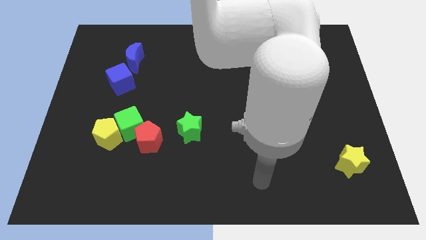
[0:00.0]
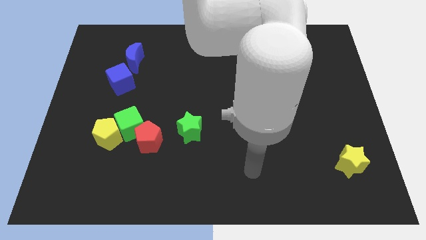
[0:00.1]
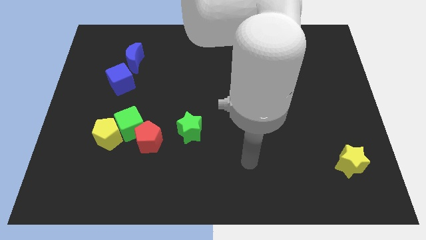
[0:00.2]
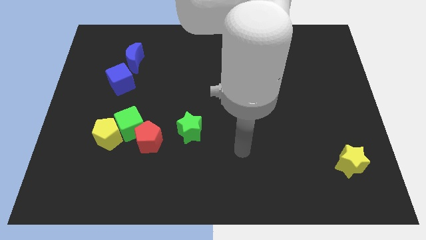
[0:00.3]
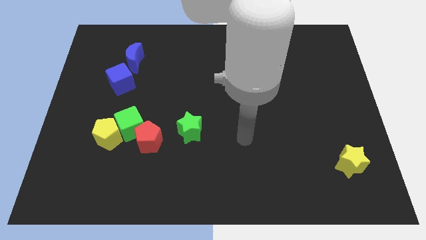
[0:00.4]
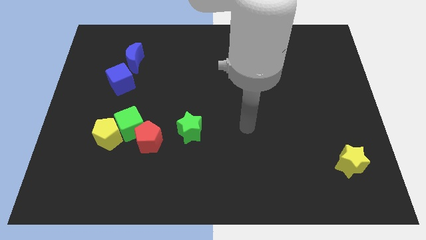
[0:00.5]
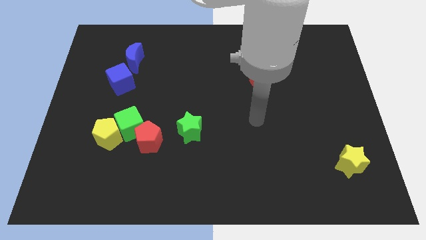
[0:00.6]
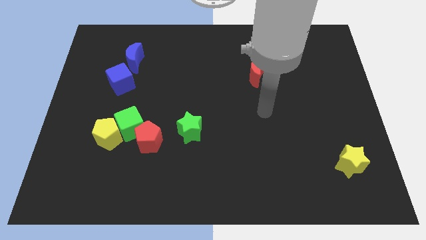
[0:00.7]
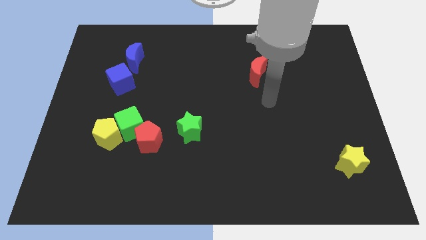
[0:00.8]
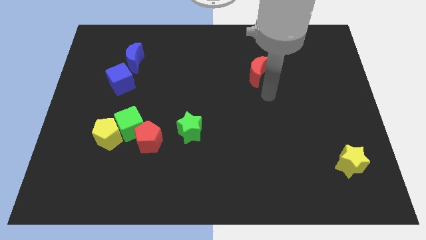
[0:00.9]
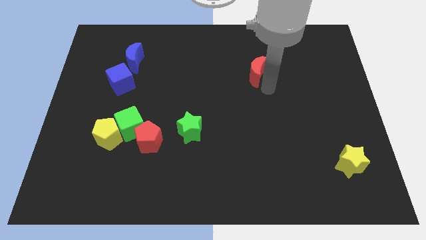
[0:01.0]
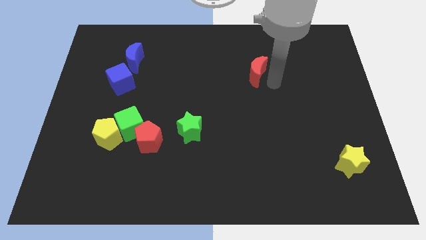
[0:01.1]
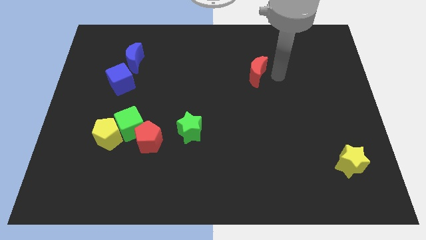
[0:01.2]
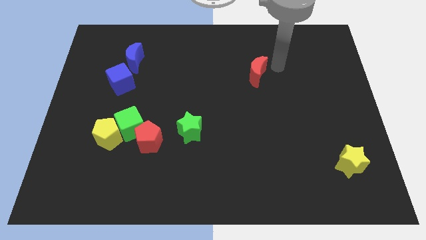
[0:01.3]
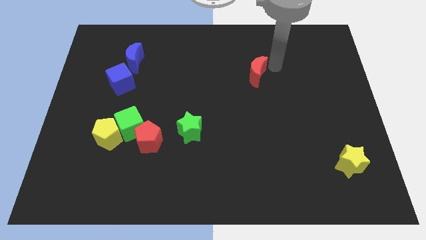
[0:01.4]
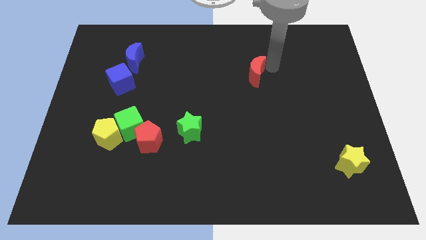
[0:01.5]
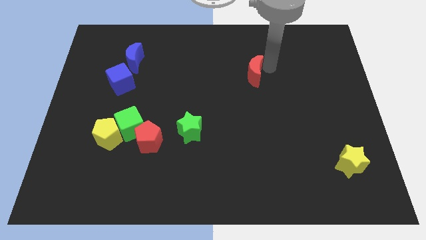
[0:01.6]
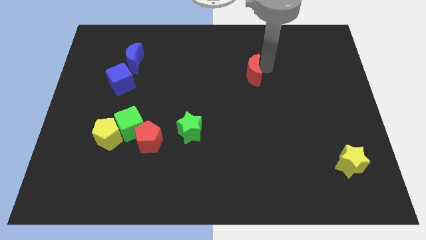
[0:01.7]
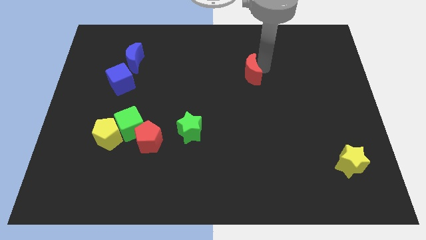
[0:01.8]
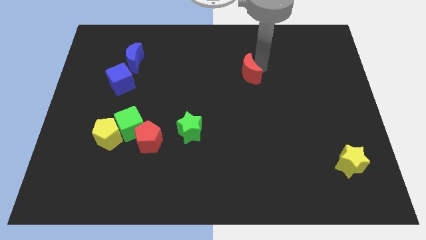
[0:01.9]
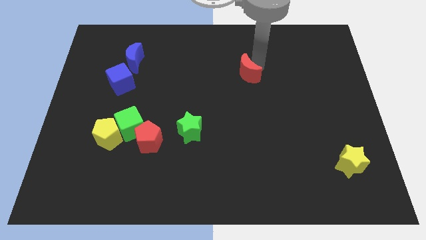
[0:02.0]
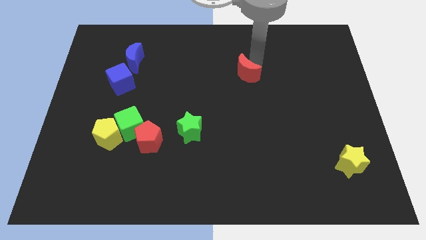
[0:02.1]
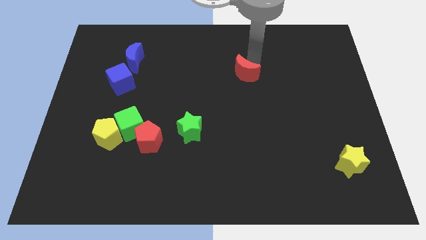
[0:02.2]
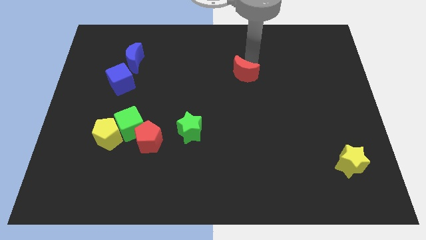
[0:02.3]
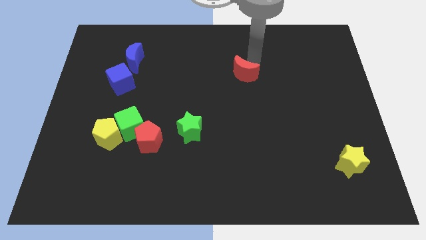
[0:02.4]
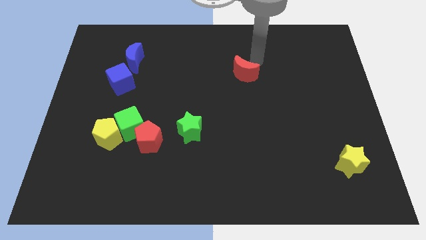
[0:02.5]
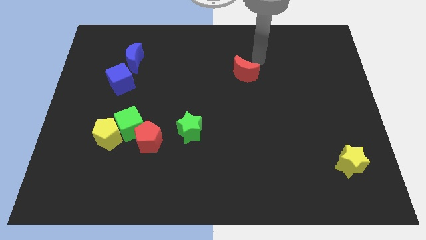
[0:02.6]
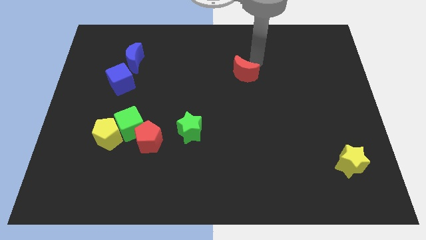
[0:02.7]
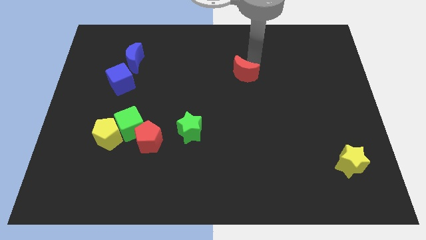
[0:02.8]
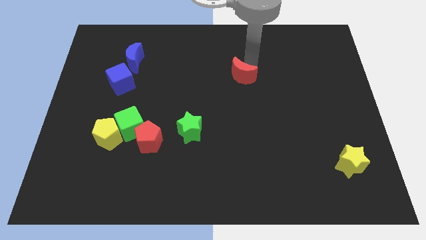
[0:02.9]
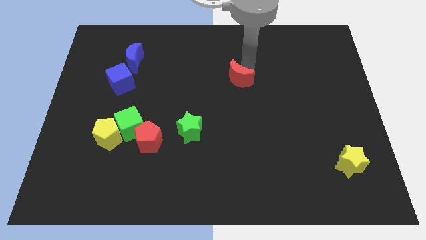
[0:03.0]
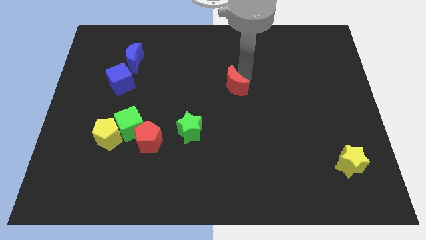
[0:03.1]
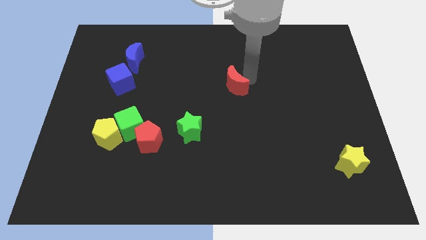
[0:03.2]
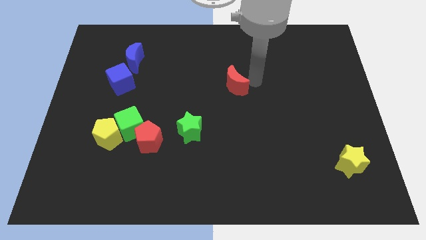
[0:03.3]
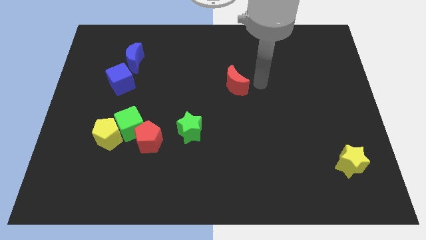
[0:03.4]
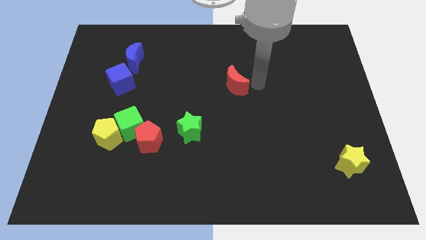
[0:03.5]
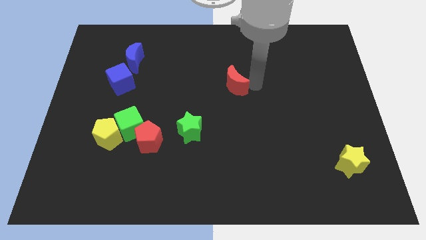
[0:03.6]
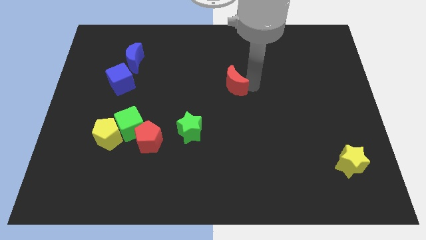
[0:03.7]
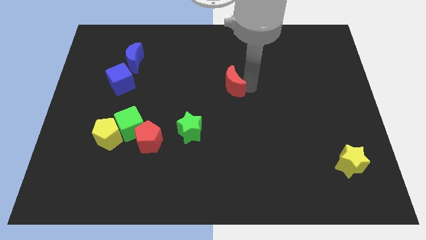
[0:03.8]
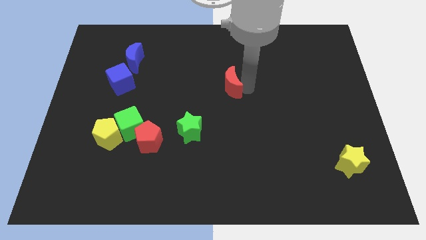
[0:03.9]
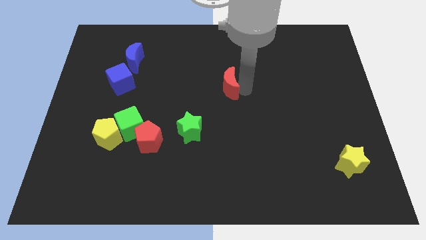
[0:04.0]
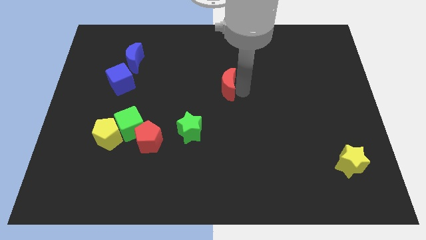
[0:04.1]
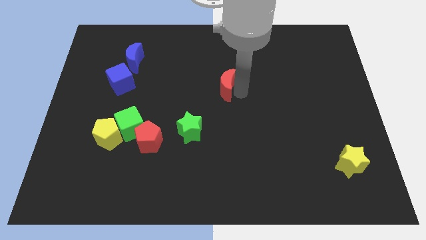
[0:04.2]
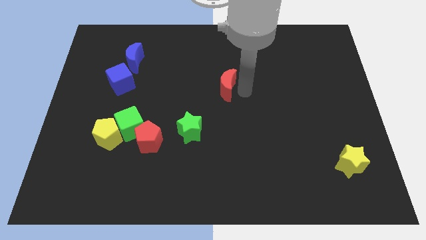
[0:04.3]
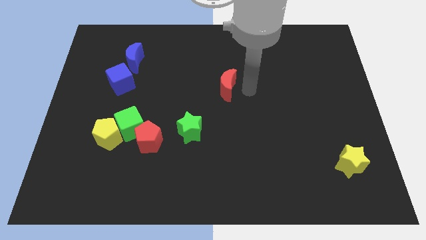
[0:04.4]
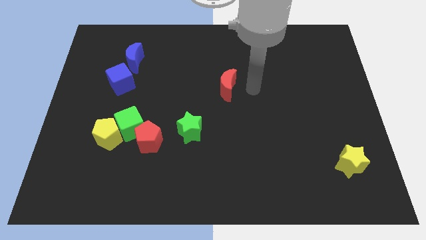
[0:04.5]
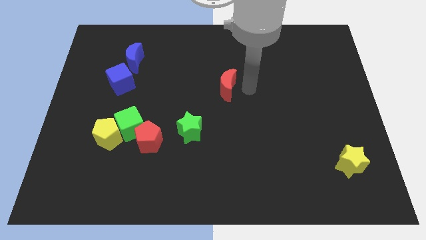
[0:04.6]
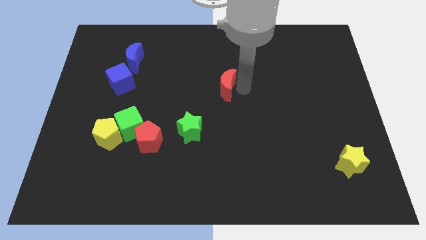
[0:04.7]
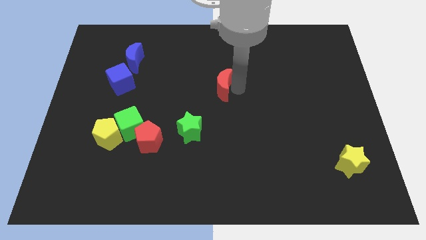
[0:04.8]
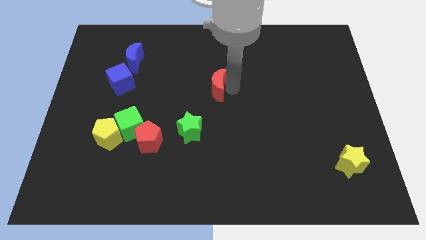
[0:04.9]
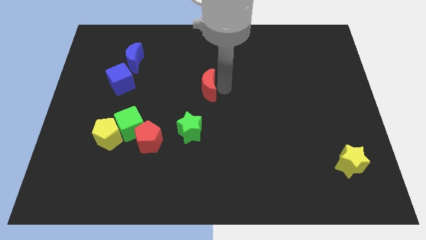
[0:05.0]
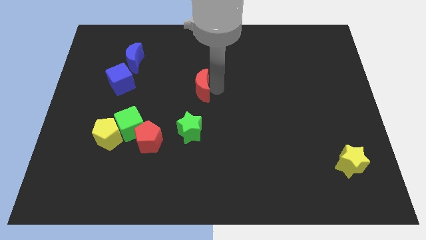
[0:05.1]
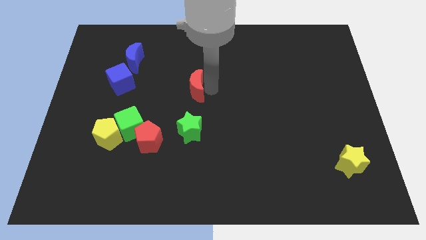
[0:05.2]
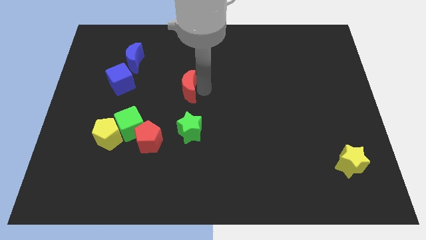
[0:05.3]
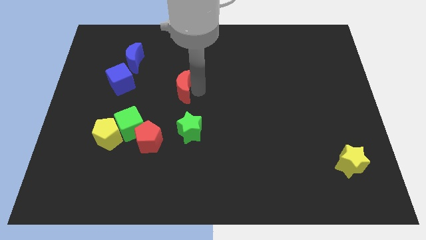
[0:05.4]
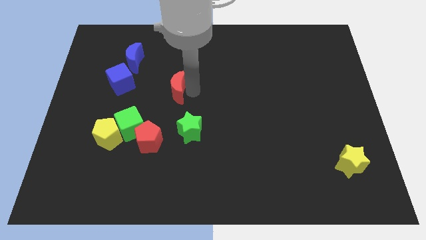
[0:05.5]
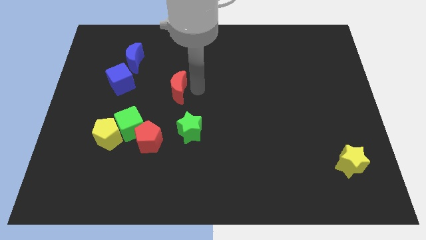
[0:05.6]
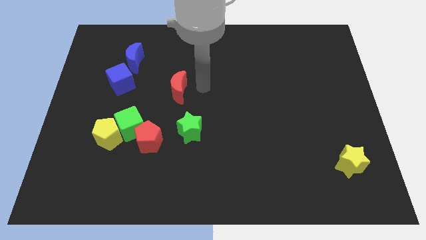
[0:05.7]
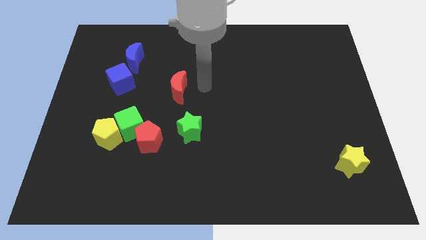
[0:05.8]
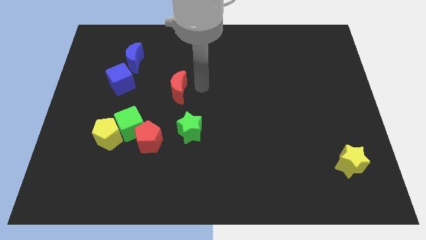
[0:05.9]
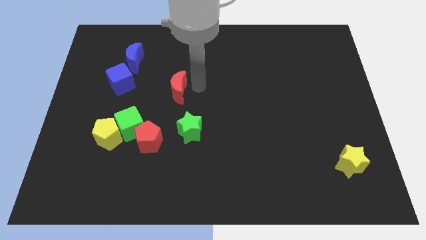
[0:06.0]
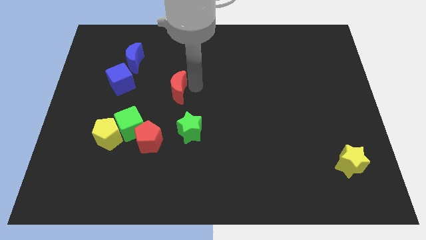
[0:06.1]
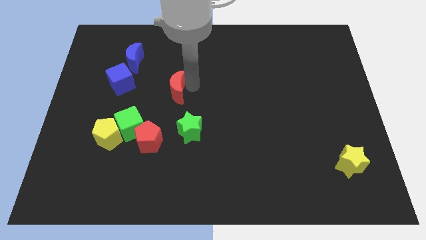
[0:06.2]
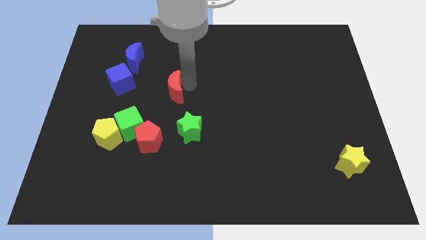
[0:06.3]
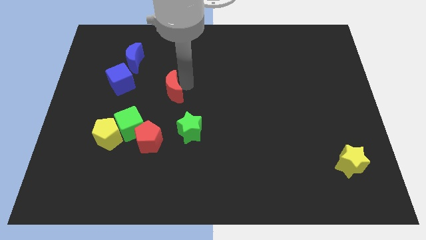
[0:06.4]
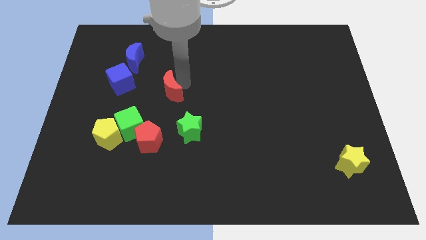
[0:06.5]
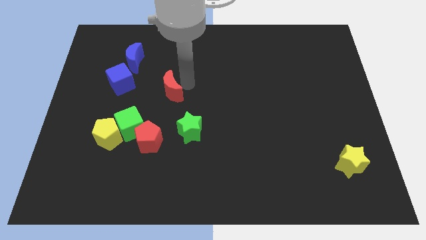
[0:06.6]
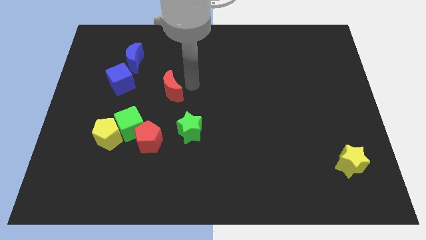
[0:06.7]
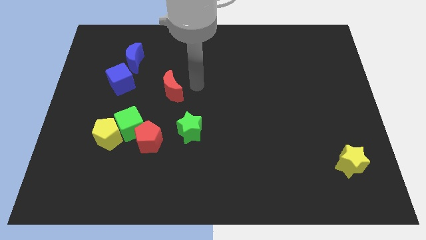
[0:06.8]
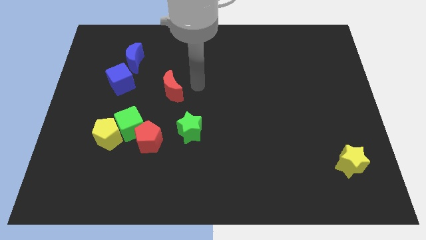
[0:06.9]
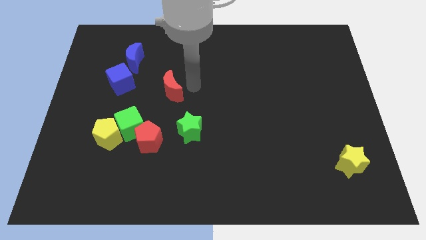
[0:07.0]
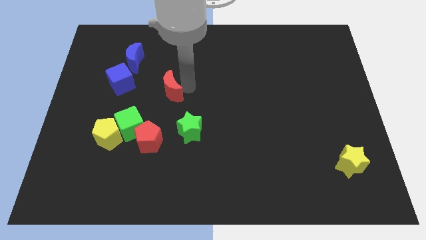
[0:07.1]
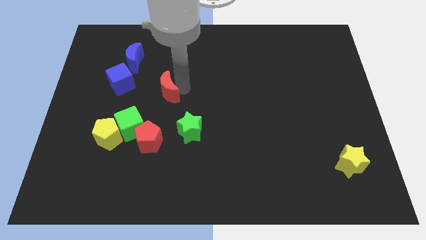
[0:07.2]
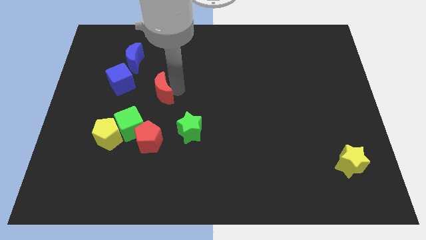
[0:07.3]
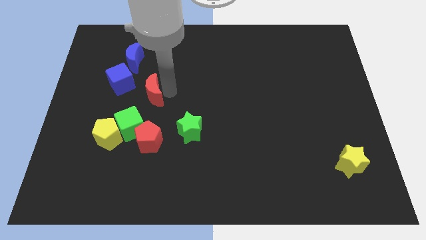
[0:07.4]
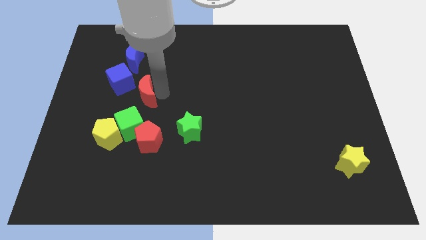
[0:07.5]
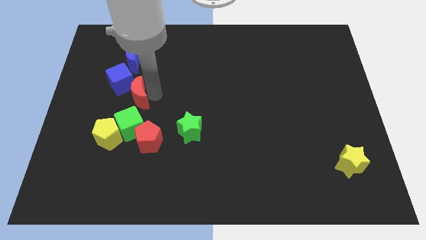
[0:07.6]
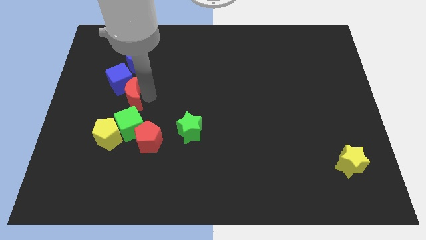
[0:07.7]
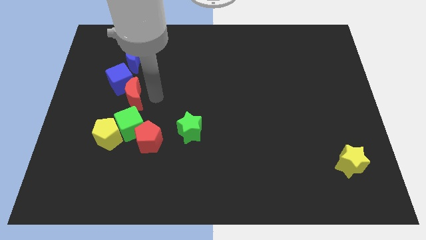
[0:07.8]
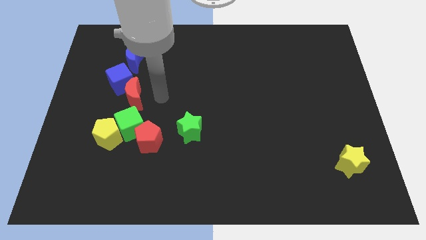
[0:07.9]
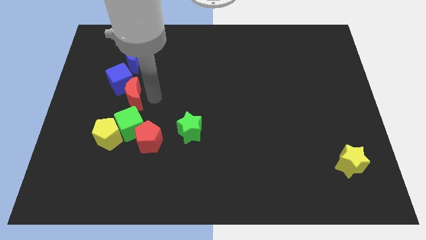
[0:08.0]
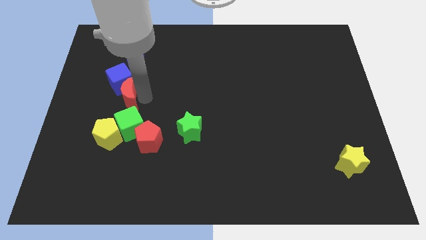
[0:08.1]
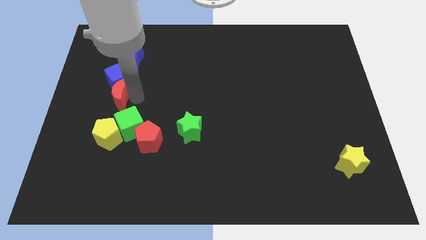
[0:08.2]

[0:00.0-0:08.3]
move the red moon diagonally down and to the left of the blue cube
